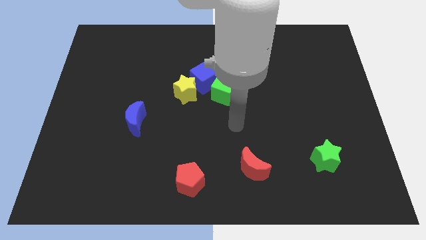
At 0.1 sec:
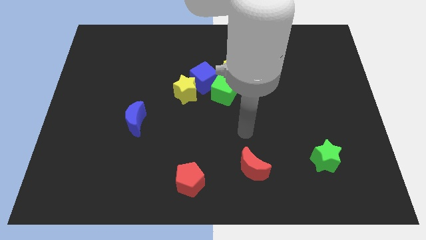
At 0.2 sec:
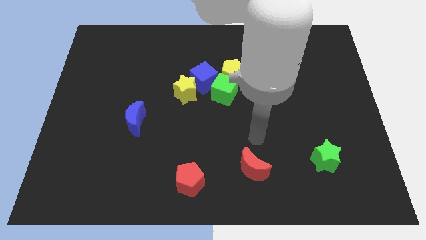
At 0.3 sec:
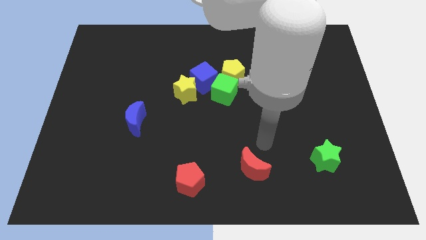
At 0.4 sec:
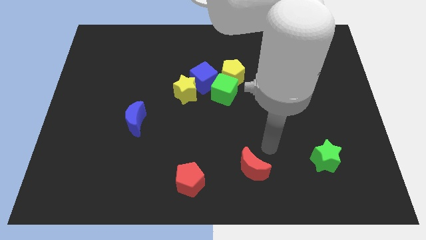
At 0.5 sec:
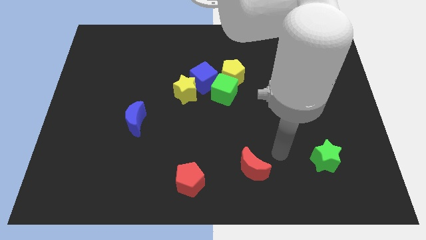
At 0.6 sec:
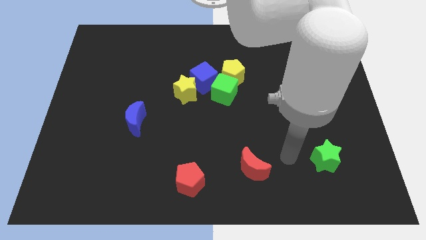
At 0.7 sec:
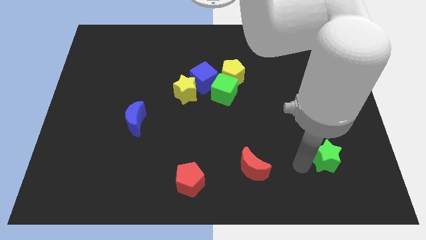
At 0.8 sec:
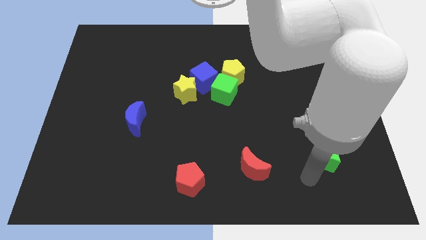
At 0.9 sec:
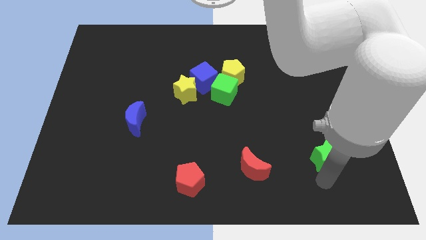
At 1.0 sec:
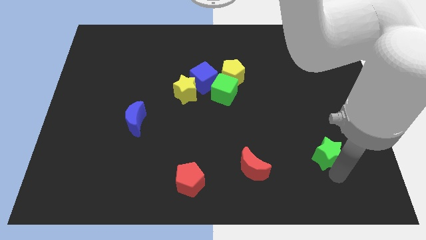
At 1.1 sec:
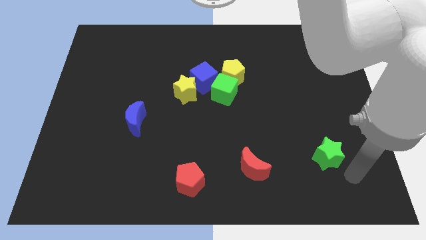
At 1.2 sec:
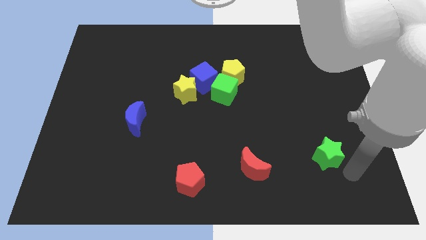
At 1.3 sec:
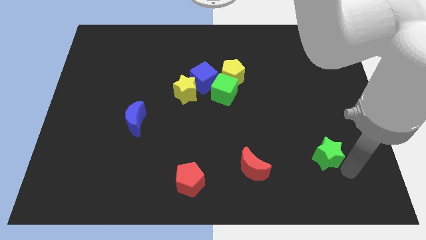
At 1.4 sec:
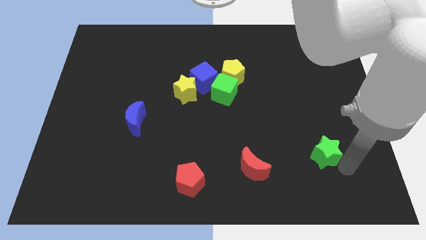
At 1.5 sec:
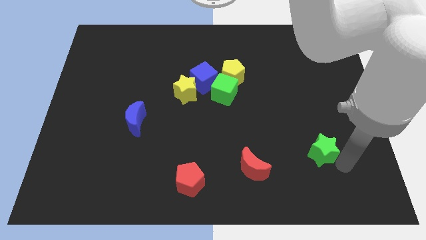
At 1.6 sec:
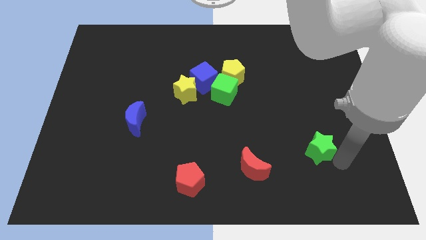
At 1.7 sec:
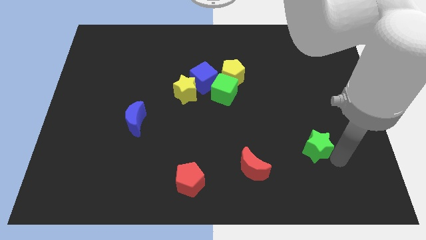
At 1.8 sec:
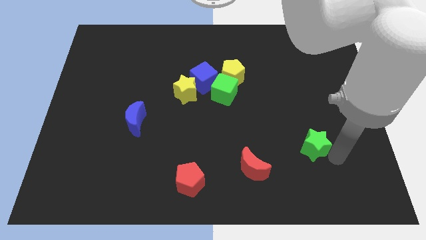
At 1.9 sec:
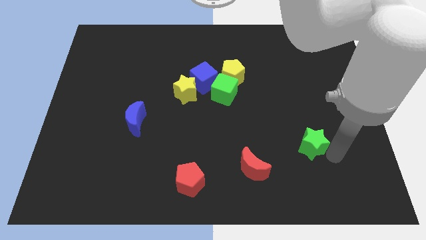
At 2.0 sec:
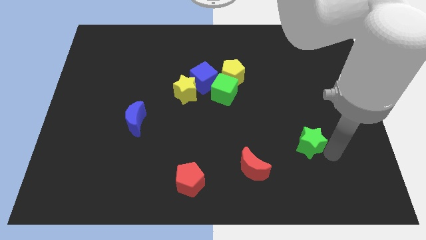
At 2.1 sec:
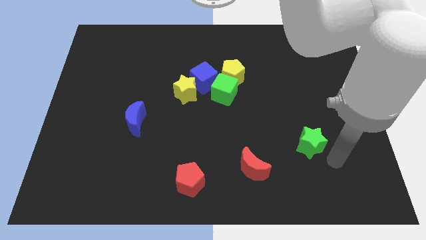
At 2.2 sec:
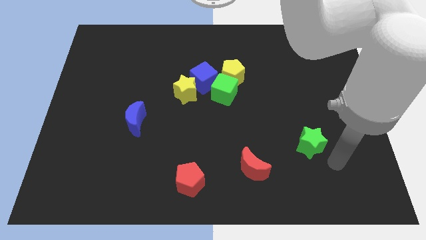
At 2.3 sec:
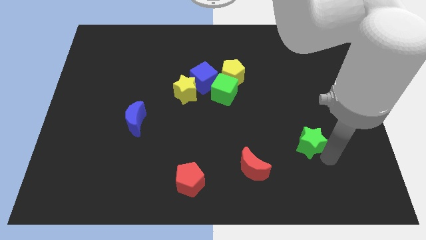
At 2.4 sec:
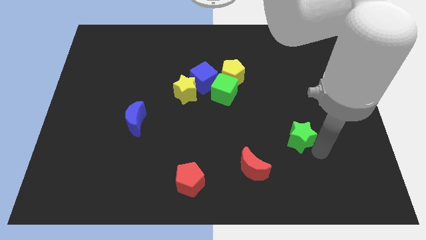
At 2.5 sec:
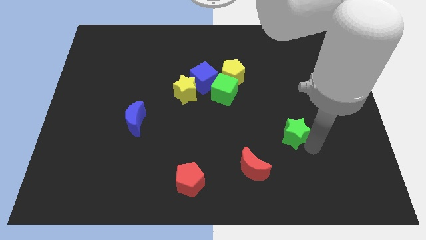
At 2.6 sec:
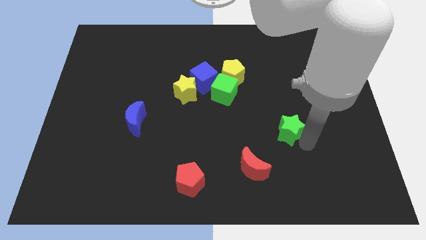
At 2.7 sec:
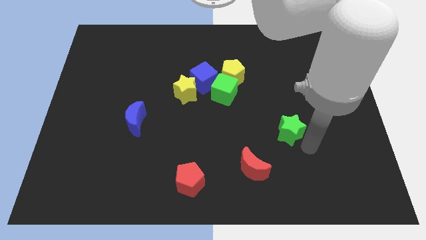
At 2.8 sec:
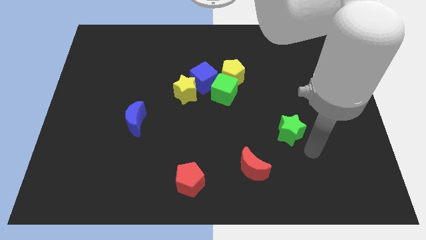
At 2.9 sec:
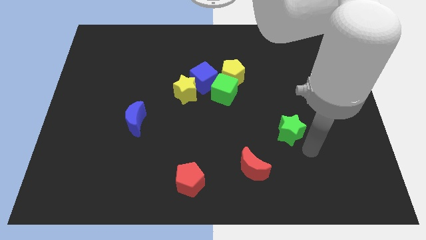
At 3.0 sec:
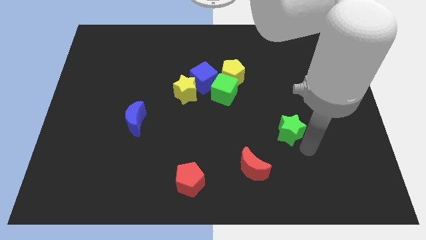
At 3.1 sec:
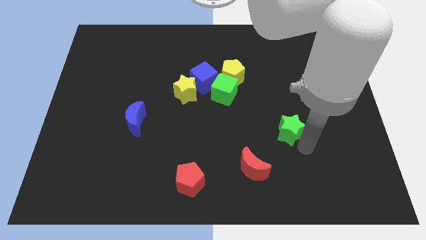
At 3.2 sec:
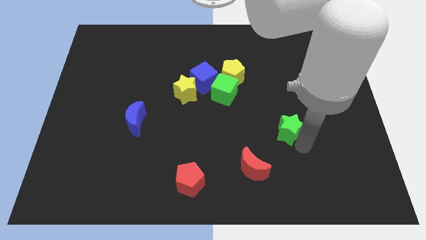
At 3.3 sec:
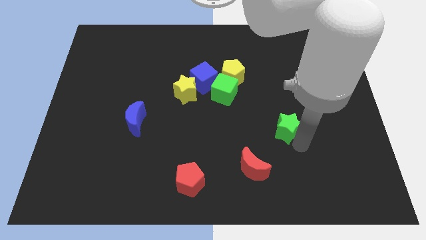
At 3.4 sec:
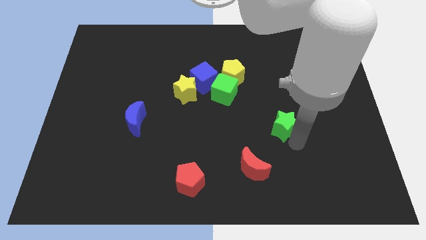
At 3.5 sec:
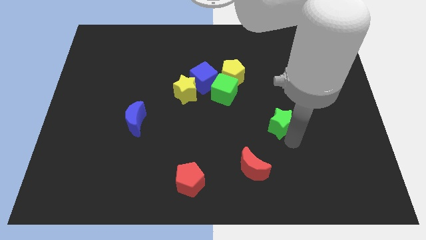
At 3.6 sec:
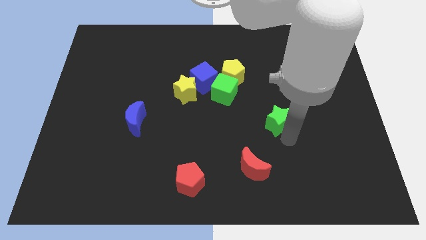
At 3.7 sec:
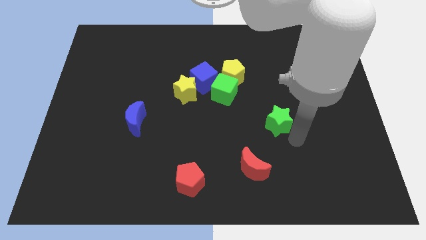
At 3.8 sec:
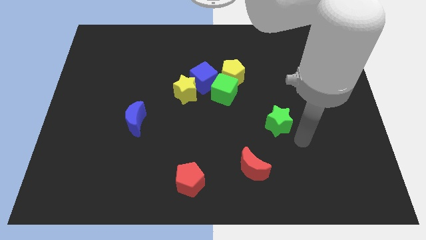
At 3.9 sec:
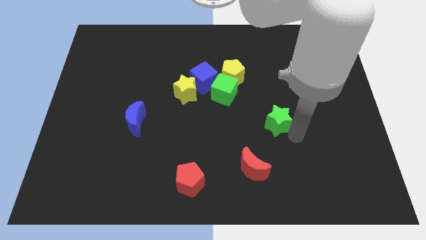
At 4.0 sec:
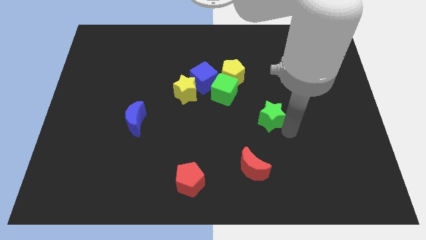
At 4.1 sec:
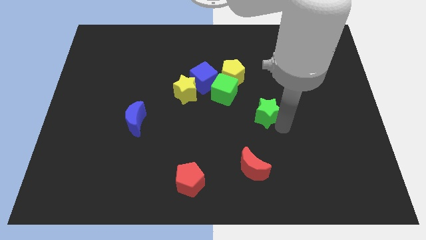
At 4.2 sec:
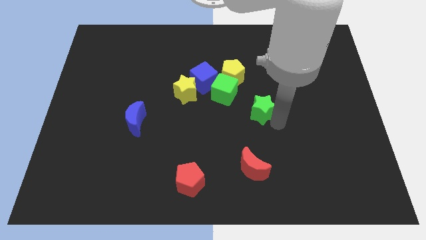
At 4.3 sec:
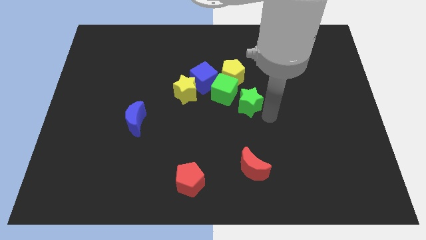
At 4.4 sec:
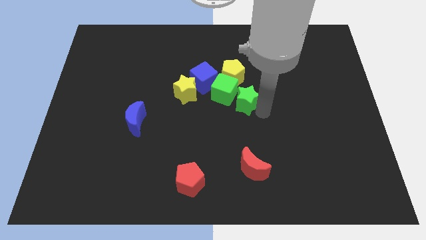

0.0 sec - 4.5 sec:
put the green star close to the green cube

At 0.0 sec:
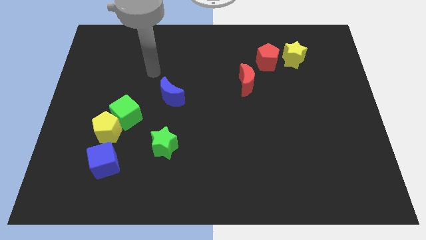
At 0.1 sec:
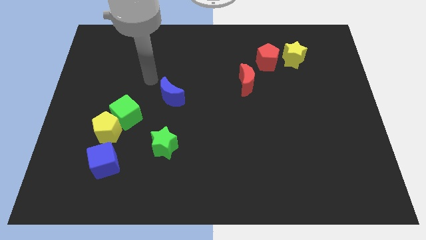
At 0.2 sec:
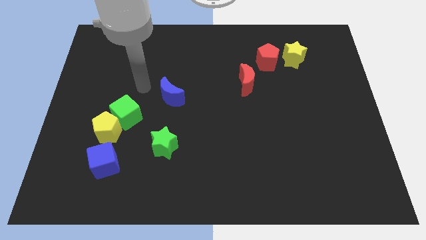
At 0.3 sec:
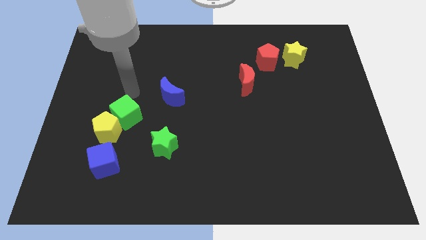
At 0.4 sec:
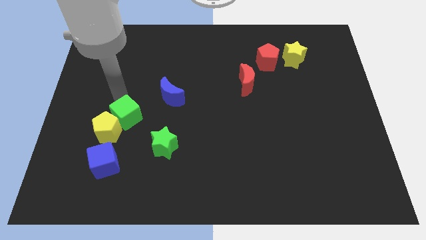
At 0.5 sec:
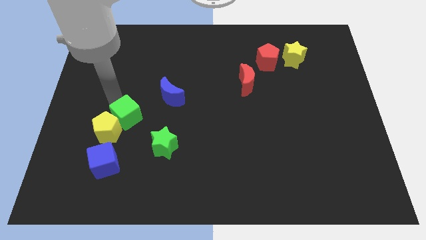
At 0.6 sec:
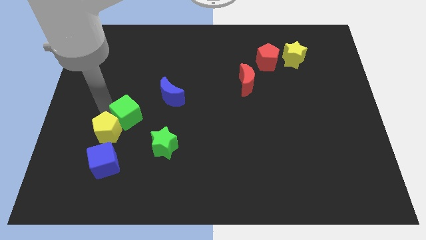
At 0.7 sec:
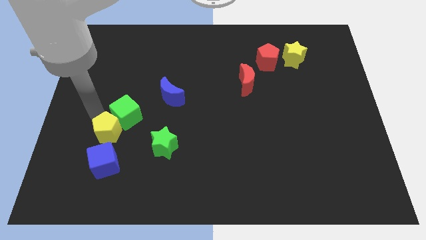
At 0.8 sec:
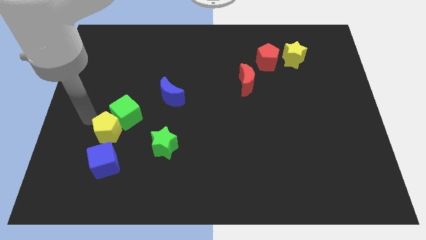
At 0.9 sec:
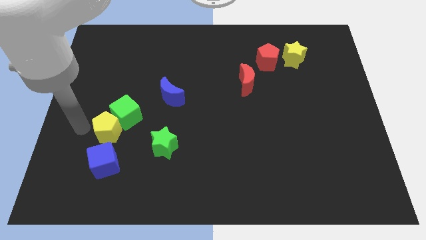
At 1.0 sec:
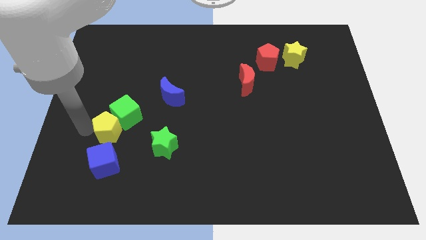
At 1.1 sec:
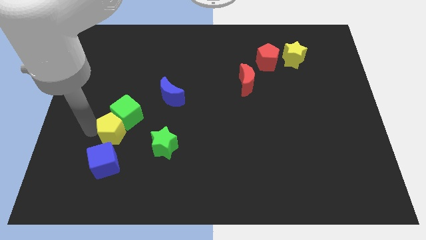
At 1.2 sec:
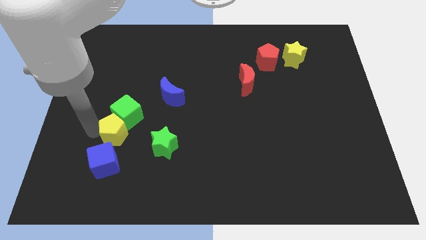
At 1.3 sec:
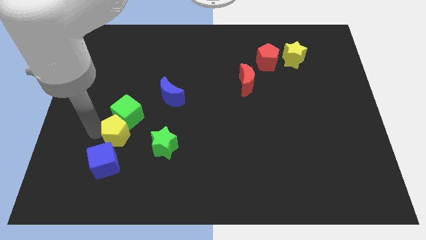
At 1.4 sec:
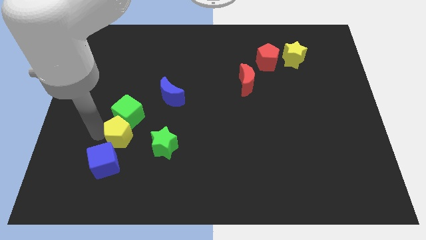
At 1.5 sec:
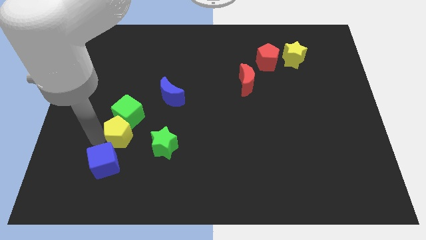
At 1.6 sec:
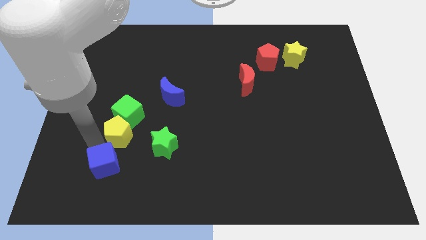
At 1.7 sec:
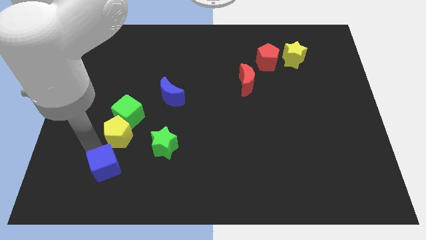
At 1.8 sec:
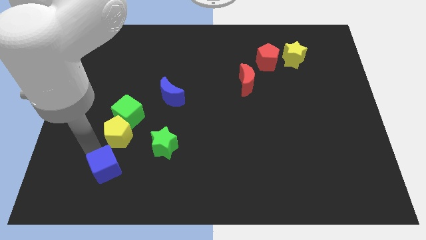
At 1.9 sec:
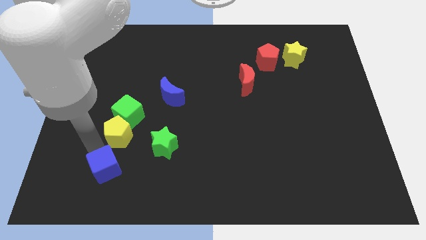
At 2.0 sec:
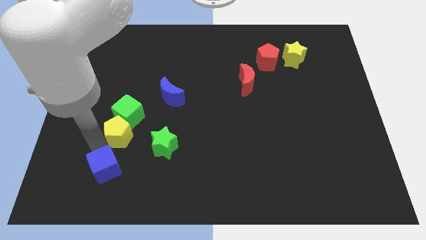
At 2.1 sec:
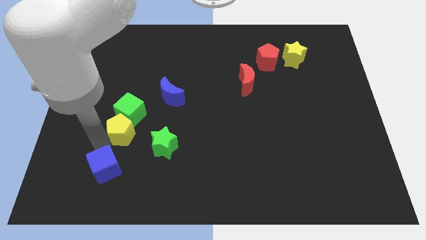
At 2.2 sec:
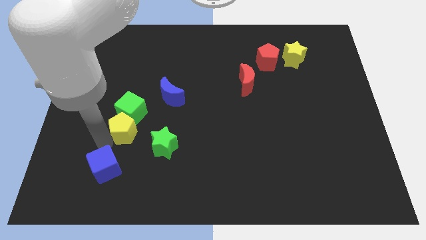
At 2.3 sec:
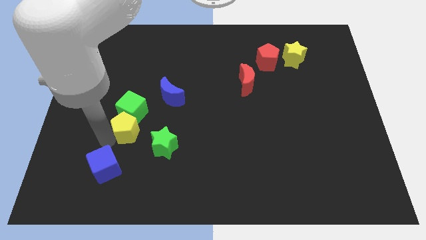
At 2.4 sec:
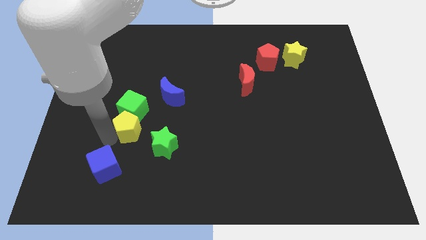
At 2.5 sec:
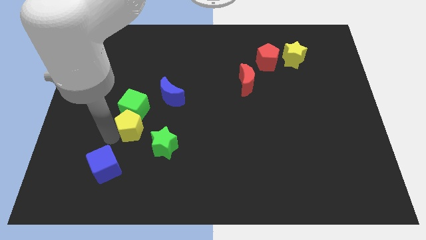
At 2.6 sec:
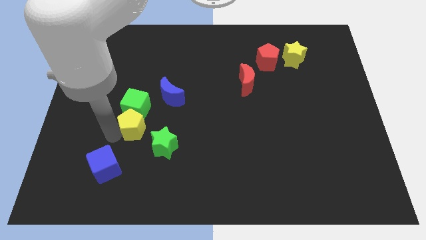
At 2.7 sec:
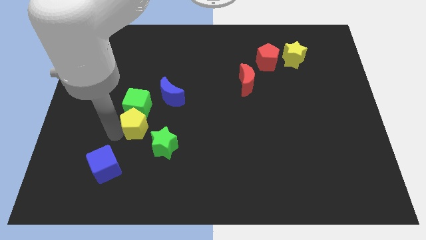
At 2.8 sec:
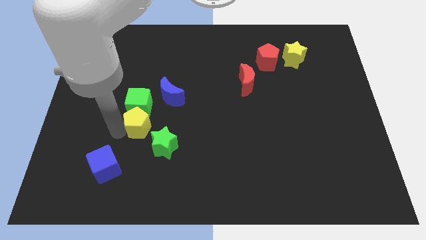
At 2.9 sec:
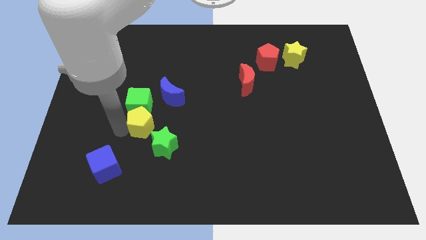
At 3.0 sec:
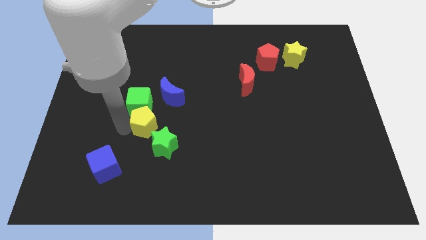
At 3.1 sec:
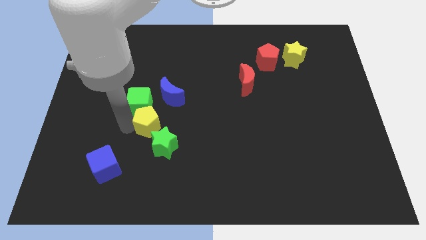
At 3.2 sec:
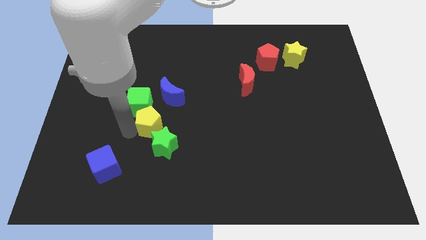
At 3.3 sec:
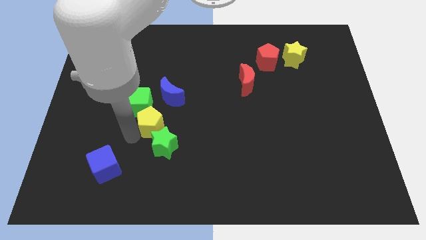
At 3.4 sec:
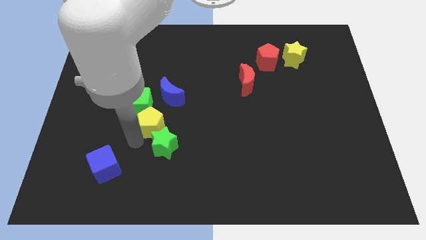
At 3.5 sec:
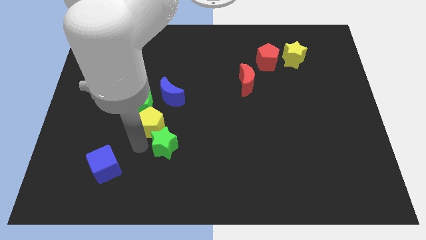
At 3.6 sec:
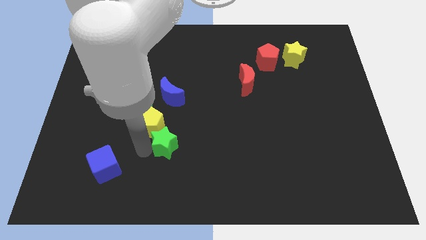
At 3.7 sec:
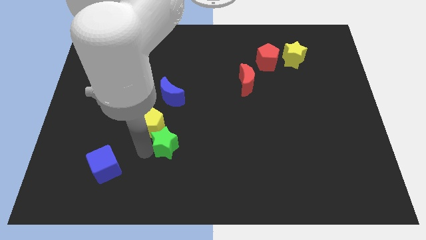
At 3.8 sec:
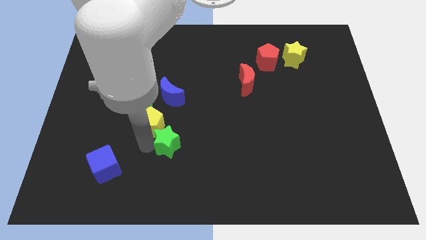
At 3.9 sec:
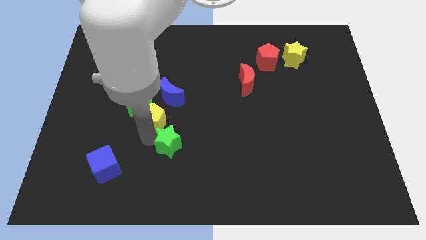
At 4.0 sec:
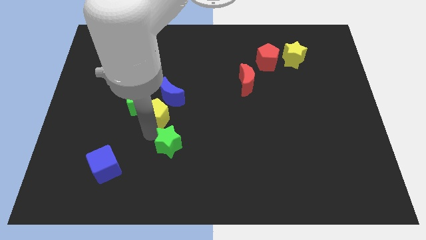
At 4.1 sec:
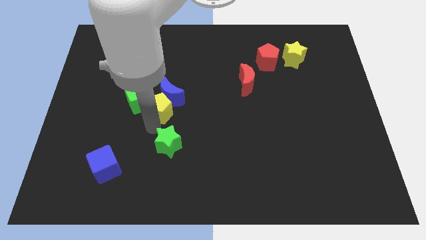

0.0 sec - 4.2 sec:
move the yellow pentagon towards the blue moon
